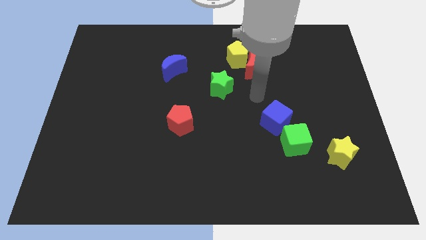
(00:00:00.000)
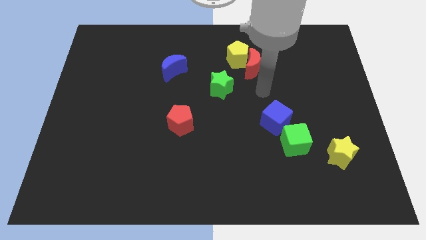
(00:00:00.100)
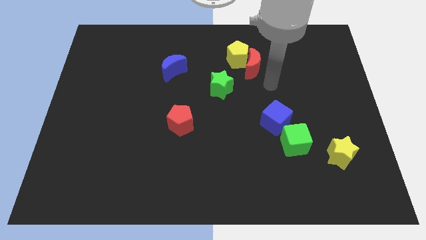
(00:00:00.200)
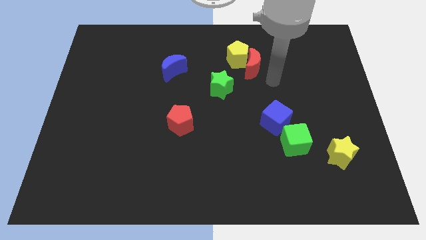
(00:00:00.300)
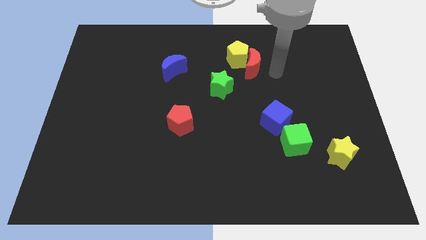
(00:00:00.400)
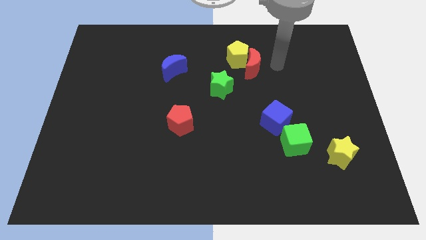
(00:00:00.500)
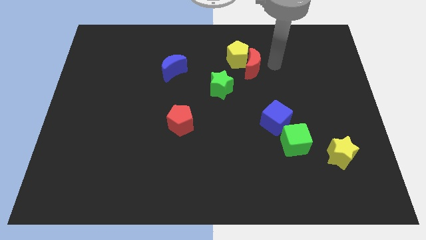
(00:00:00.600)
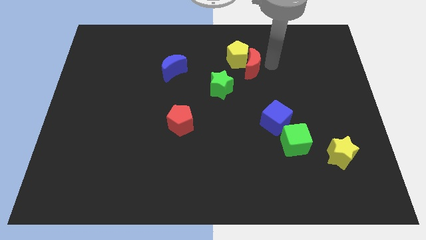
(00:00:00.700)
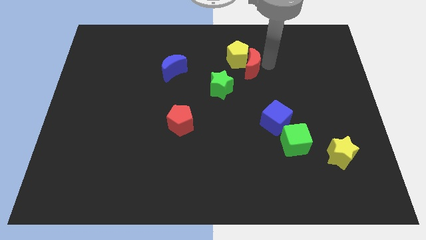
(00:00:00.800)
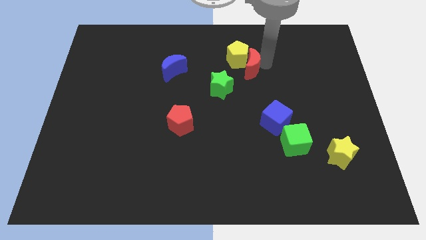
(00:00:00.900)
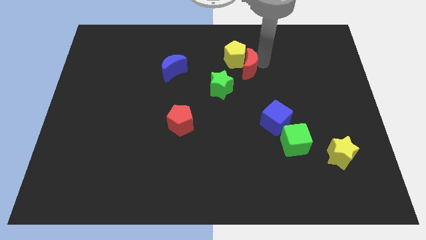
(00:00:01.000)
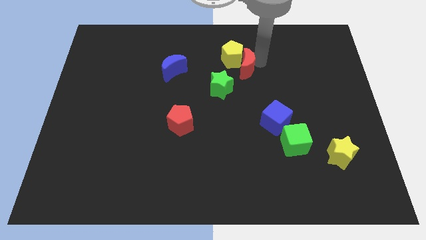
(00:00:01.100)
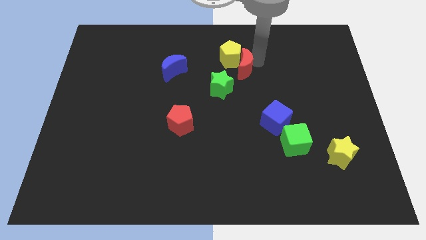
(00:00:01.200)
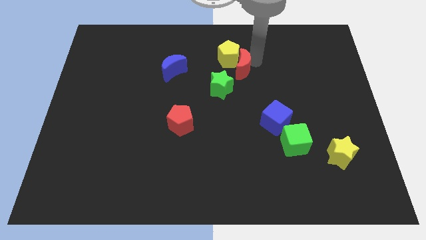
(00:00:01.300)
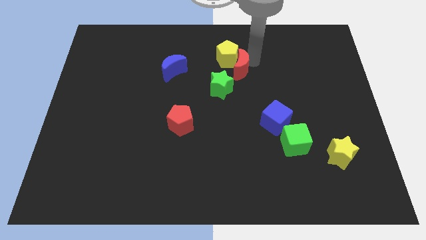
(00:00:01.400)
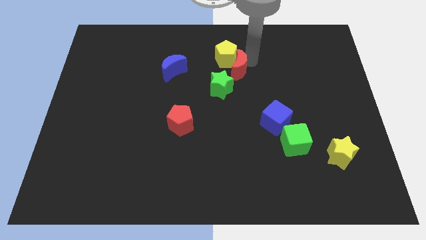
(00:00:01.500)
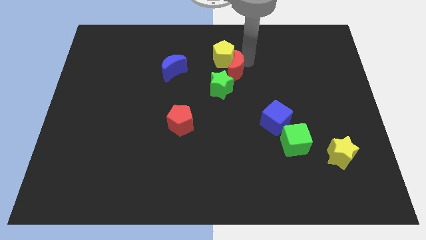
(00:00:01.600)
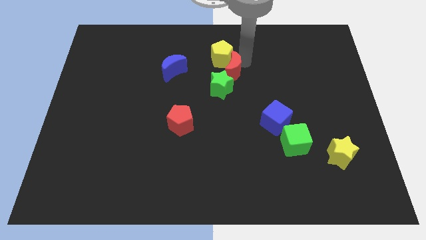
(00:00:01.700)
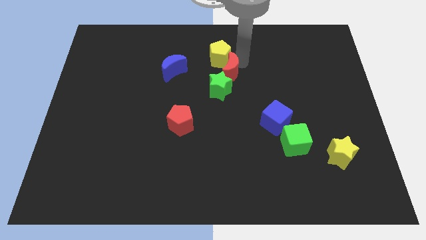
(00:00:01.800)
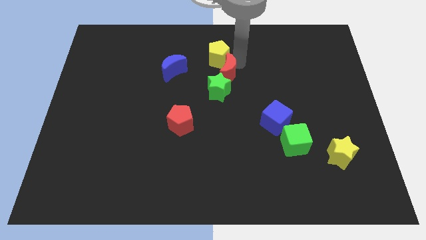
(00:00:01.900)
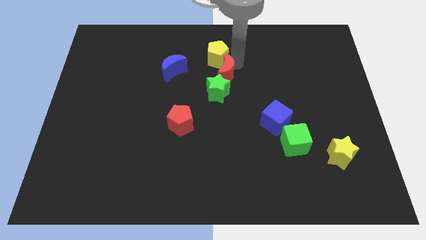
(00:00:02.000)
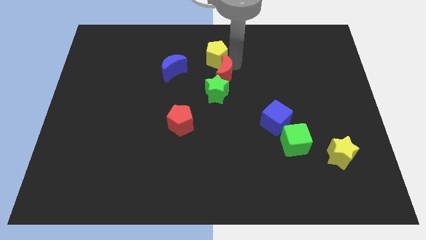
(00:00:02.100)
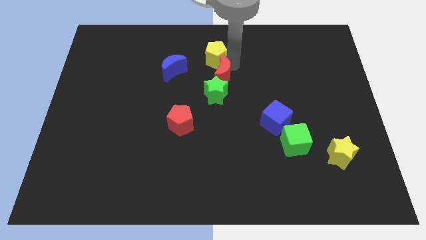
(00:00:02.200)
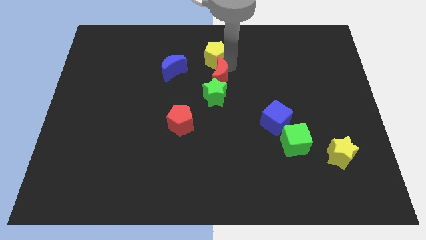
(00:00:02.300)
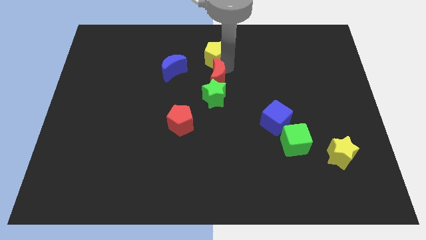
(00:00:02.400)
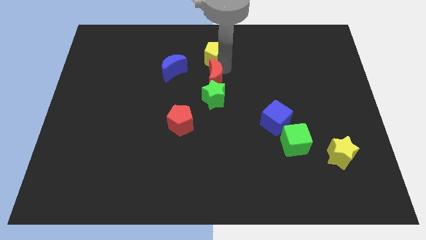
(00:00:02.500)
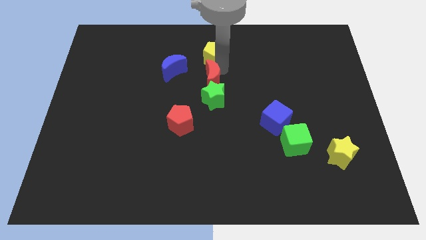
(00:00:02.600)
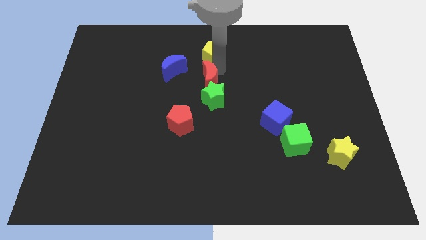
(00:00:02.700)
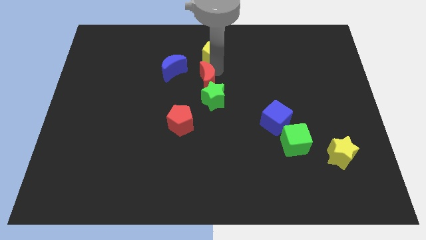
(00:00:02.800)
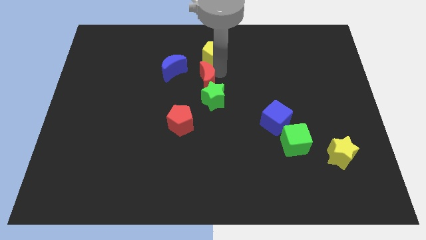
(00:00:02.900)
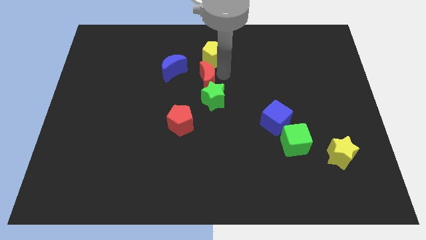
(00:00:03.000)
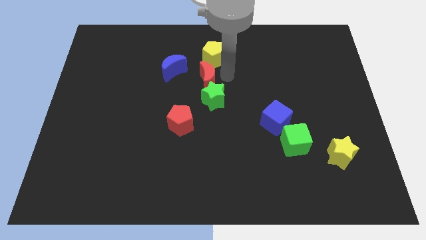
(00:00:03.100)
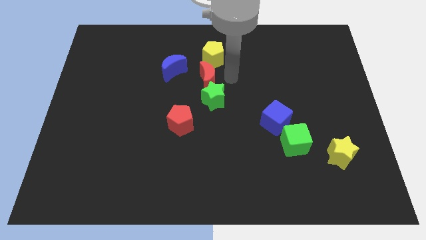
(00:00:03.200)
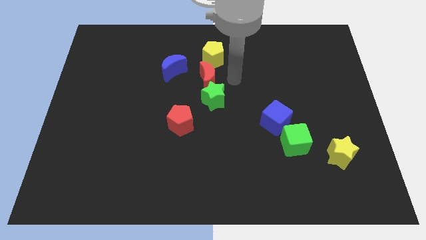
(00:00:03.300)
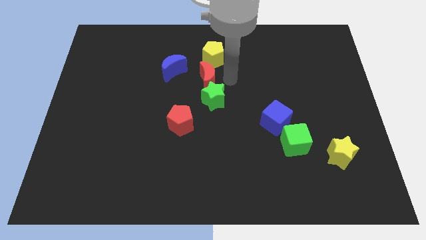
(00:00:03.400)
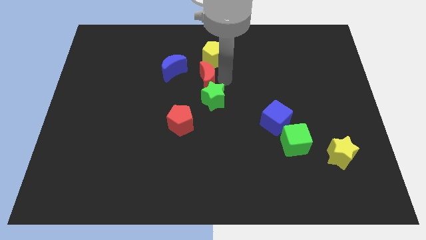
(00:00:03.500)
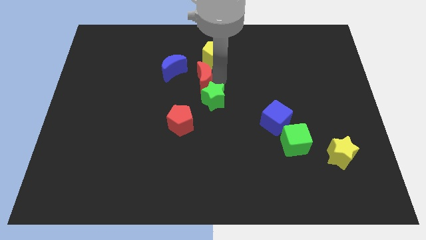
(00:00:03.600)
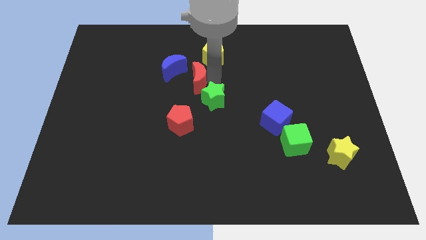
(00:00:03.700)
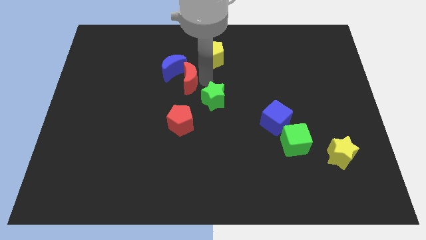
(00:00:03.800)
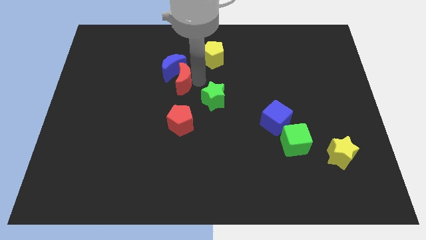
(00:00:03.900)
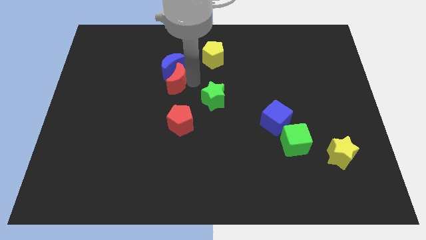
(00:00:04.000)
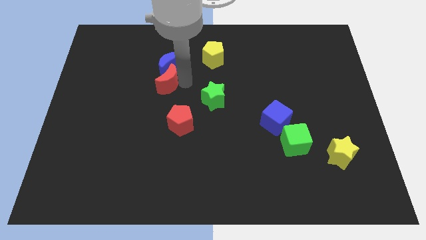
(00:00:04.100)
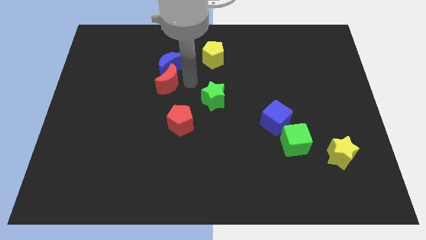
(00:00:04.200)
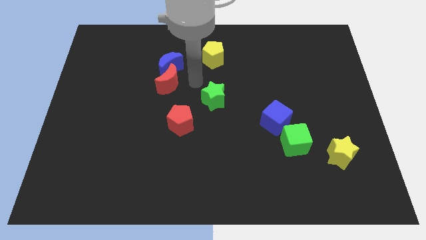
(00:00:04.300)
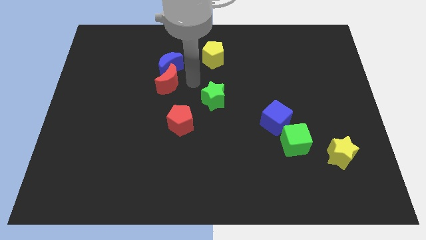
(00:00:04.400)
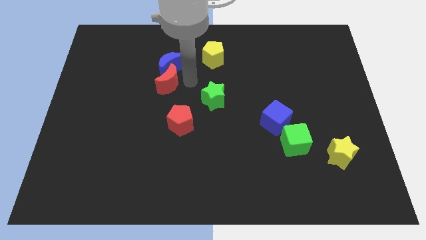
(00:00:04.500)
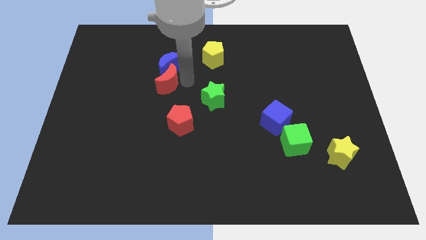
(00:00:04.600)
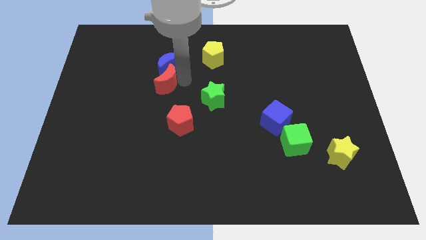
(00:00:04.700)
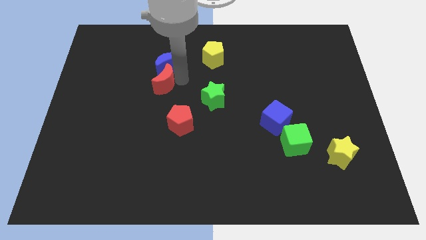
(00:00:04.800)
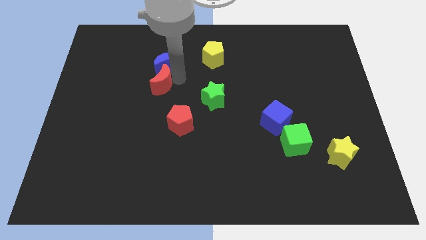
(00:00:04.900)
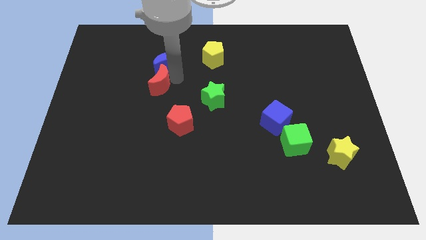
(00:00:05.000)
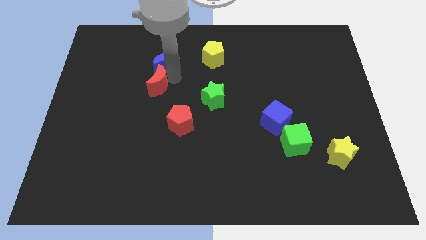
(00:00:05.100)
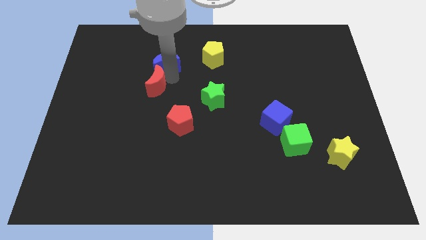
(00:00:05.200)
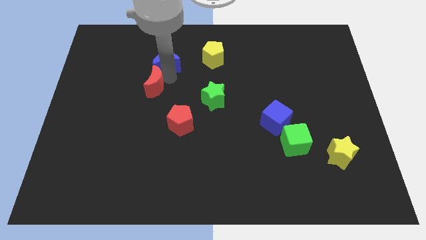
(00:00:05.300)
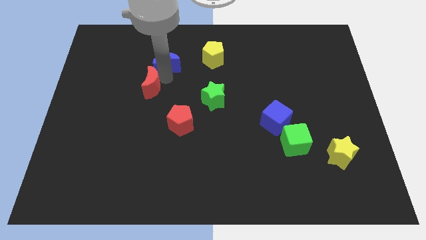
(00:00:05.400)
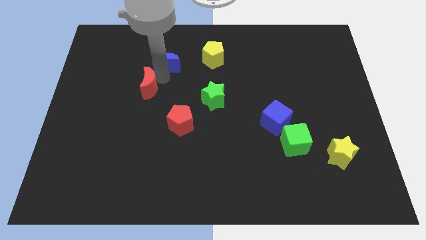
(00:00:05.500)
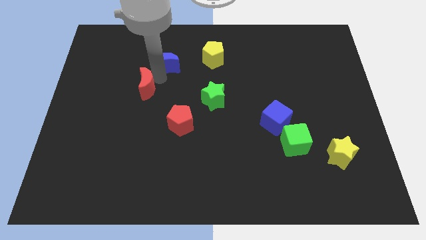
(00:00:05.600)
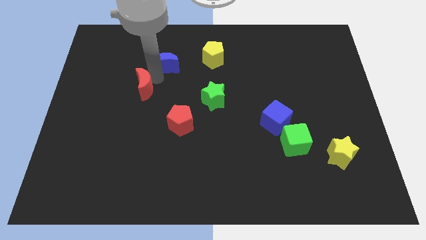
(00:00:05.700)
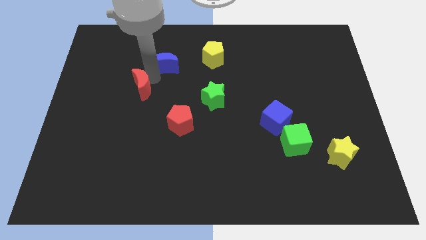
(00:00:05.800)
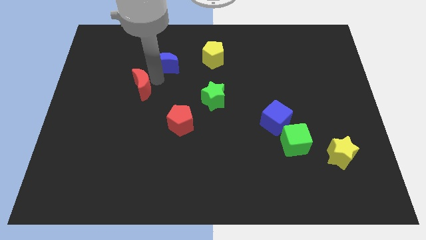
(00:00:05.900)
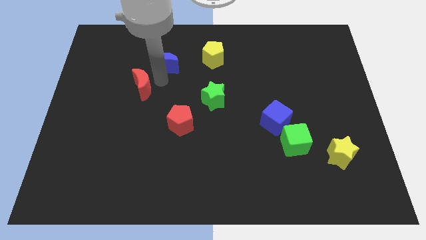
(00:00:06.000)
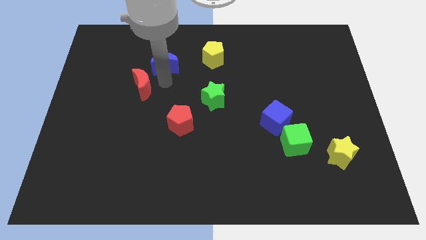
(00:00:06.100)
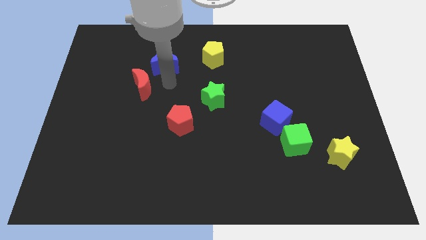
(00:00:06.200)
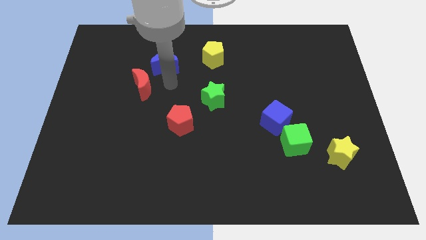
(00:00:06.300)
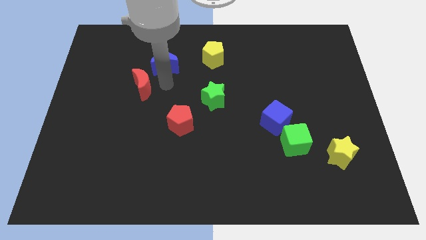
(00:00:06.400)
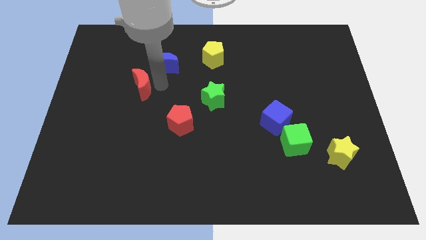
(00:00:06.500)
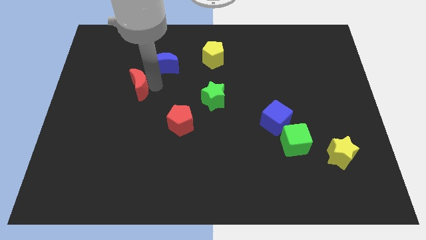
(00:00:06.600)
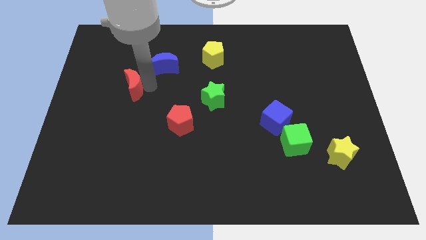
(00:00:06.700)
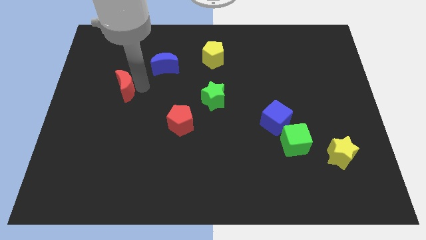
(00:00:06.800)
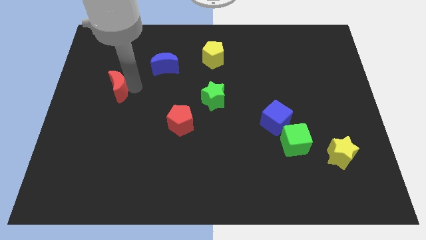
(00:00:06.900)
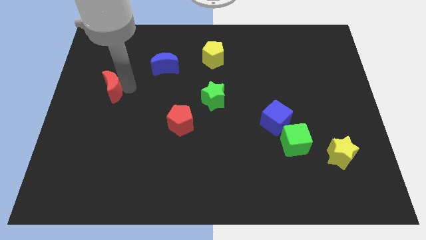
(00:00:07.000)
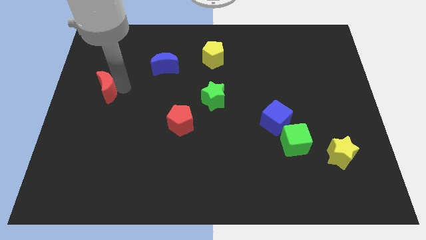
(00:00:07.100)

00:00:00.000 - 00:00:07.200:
put the red moon to the center left
